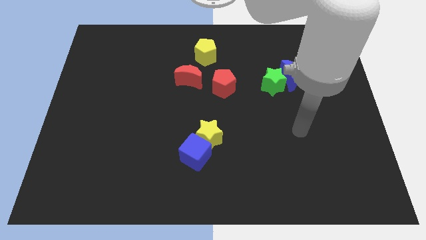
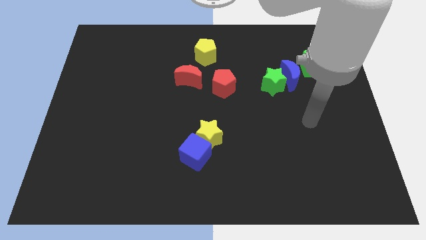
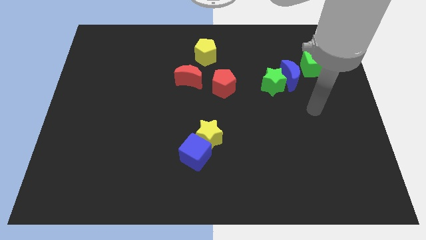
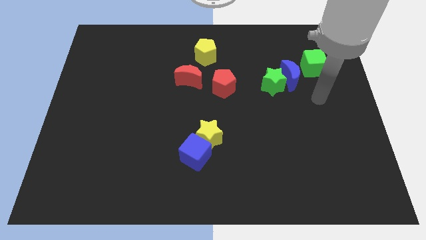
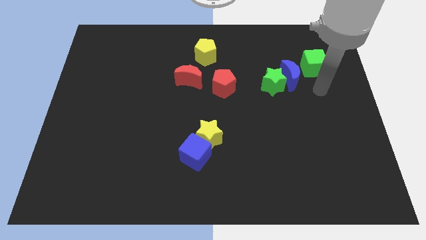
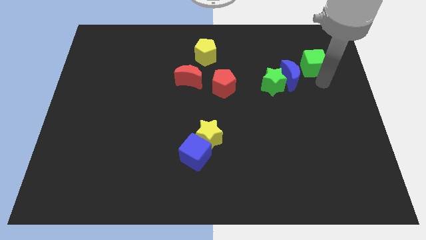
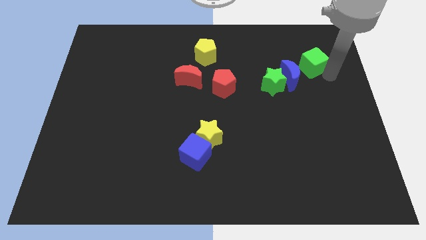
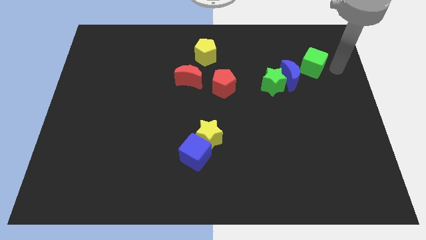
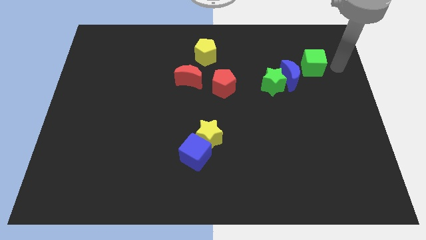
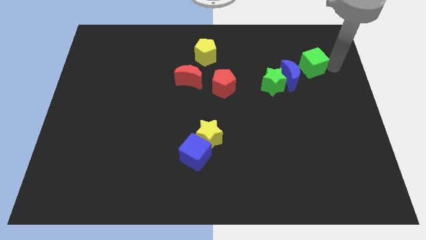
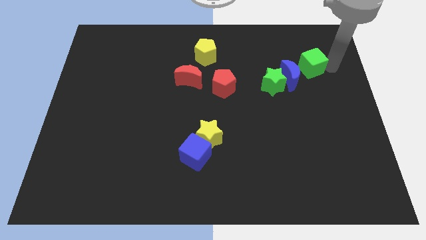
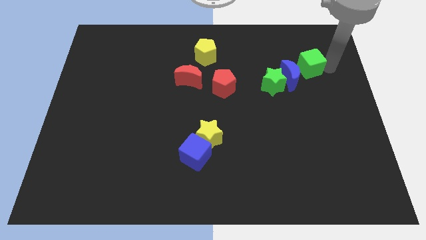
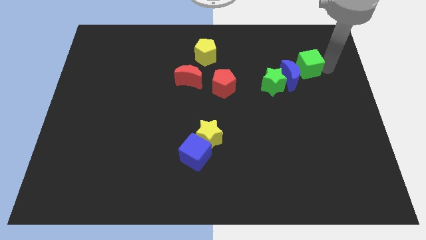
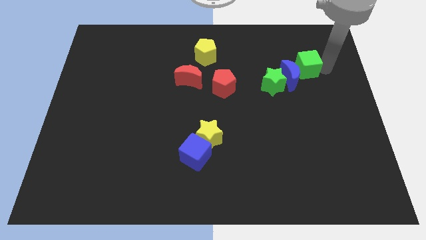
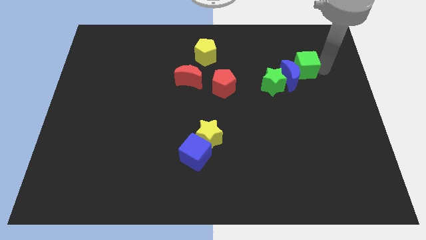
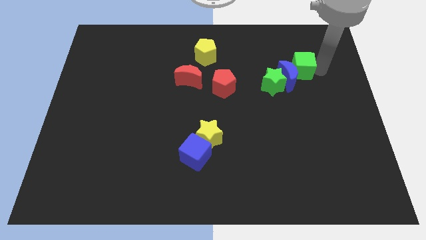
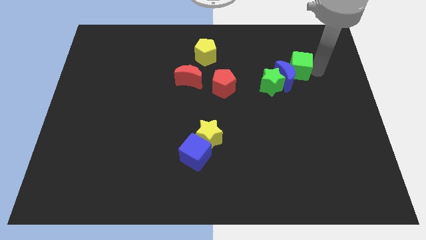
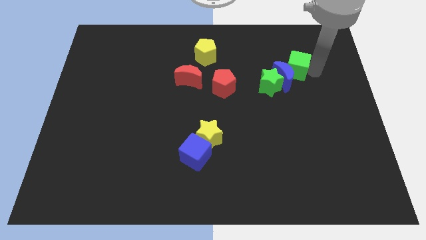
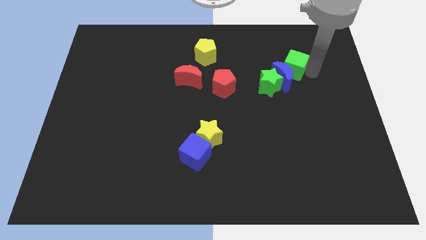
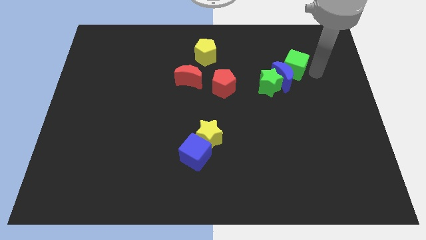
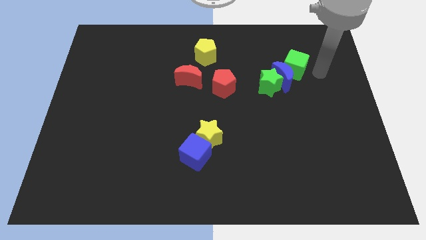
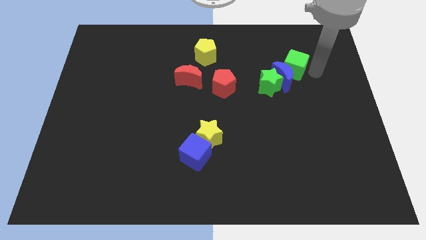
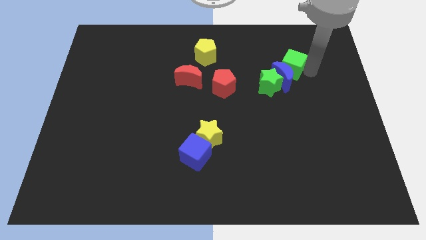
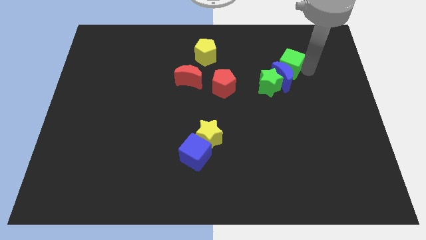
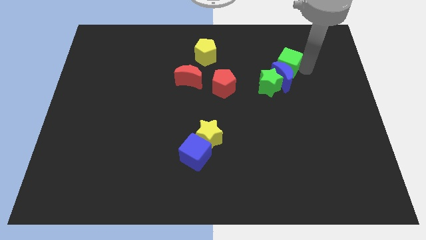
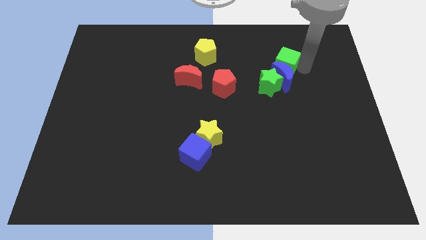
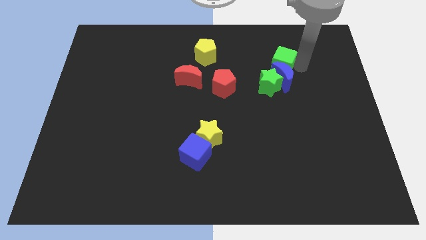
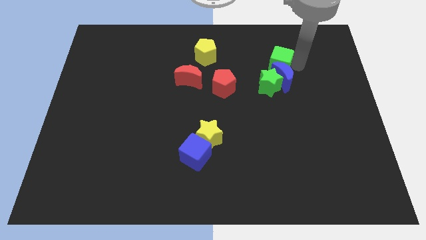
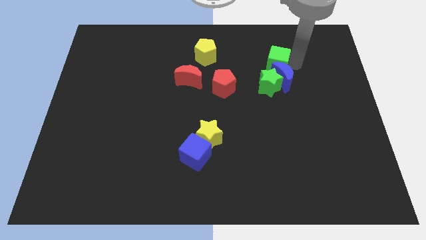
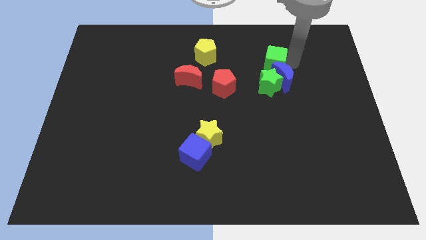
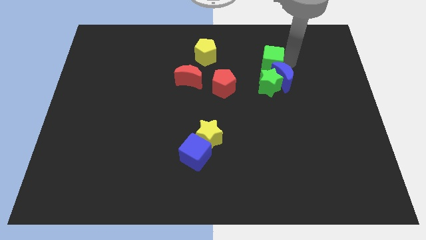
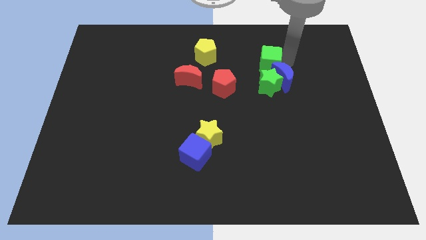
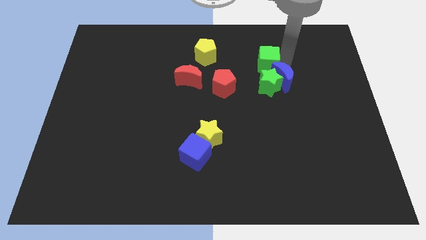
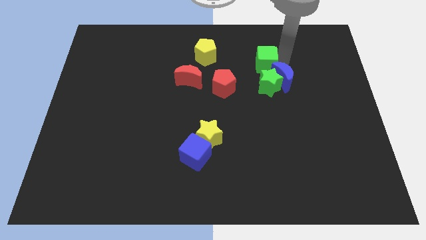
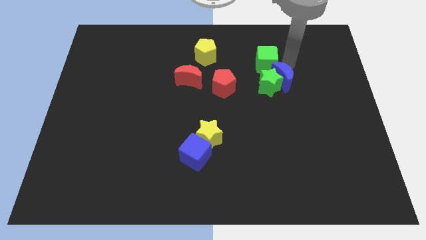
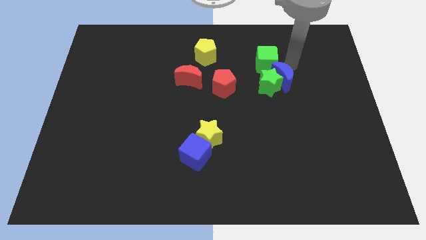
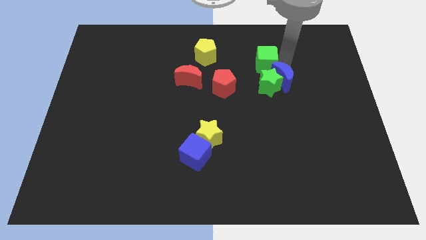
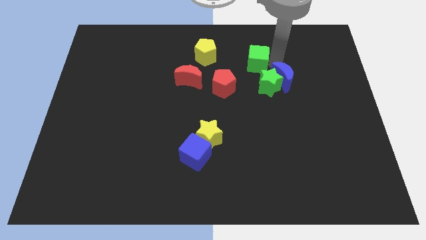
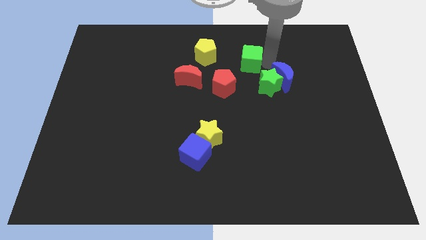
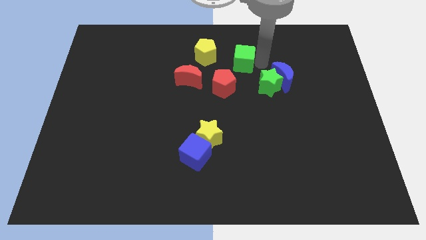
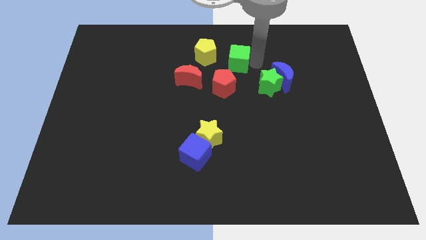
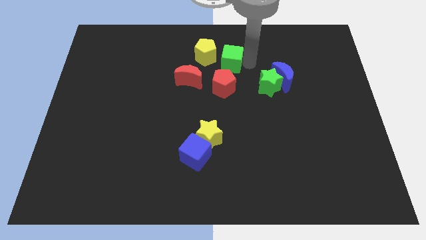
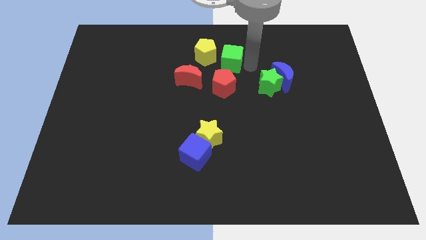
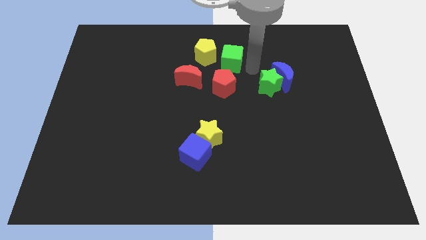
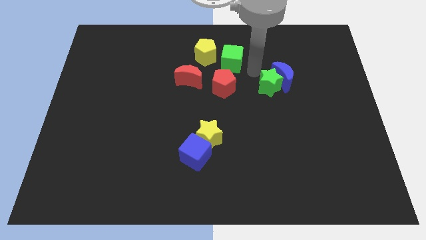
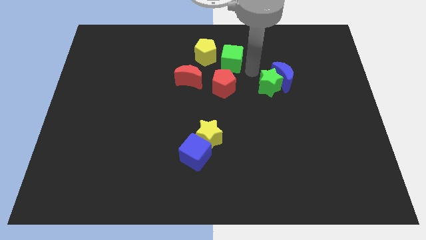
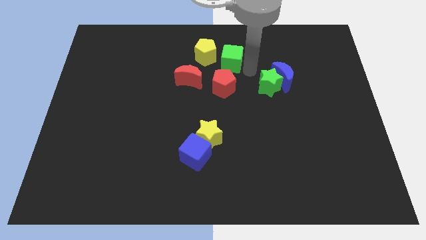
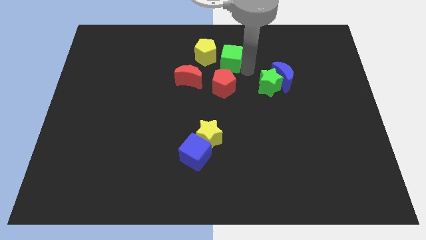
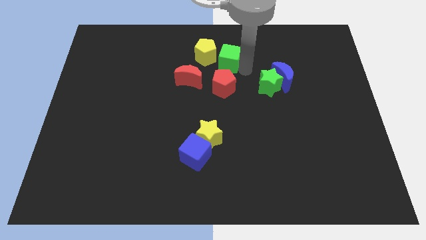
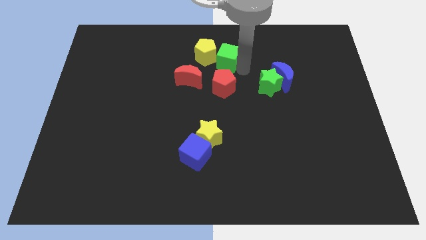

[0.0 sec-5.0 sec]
slide the green cube to the yellow pentagon

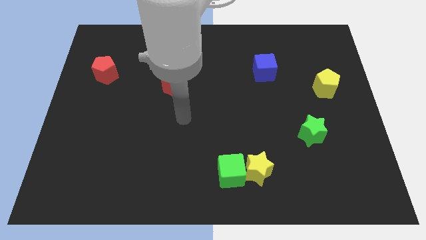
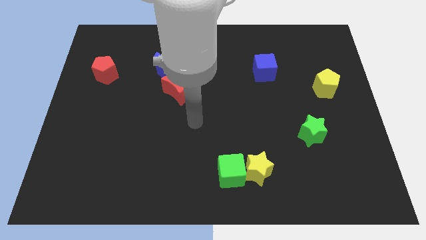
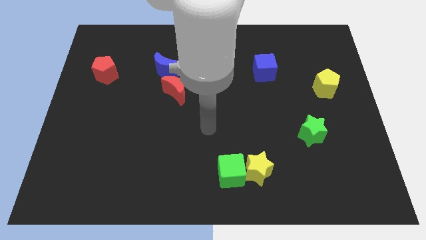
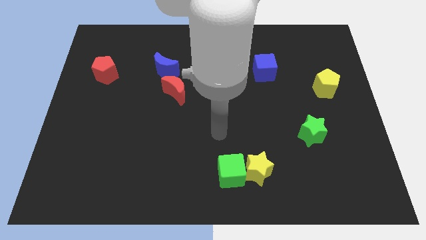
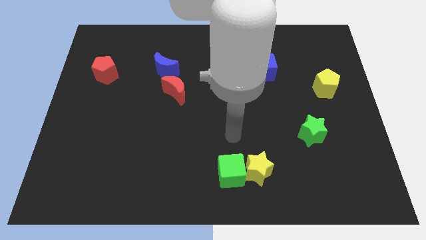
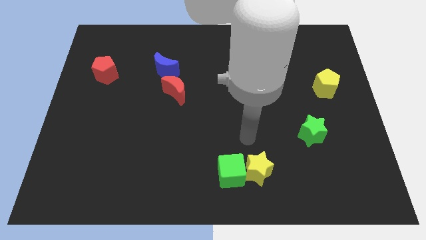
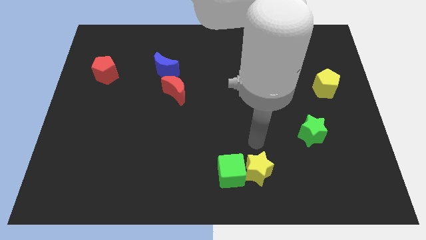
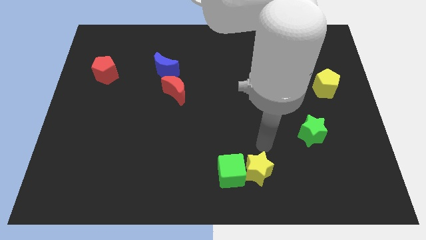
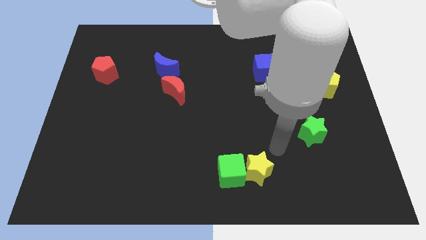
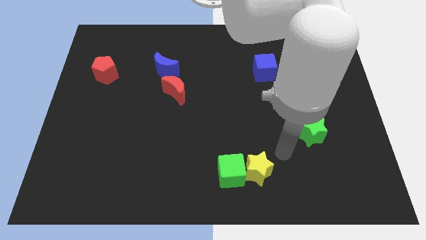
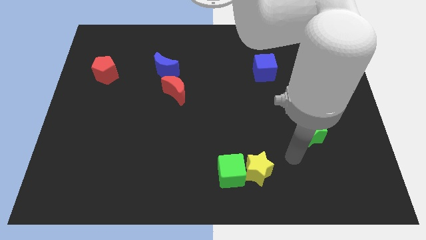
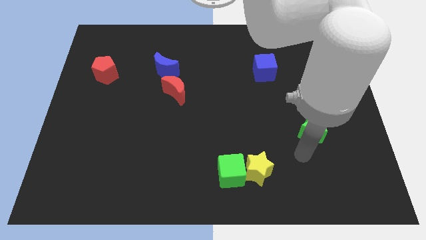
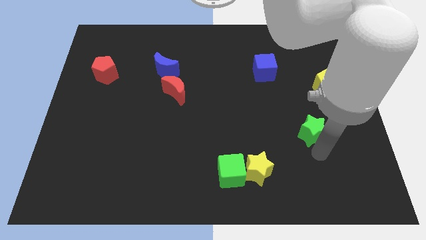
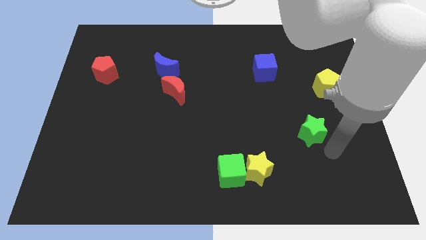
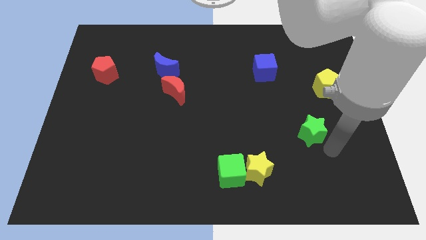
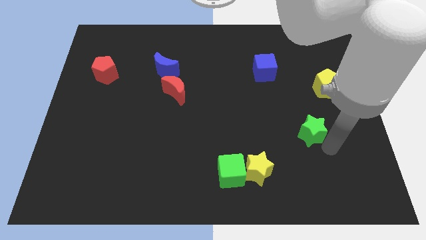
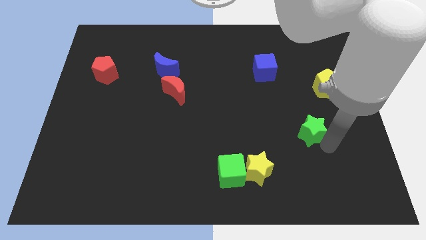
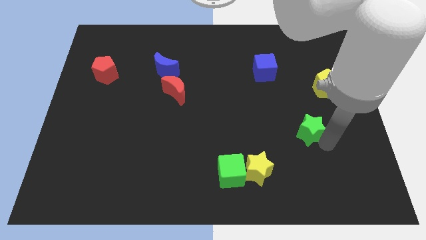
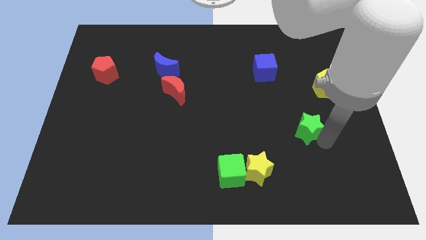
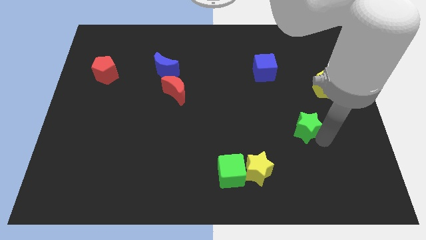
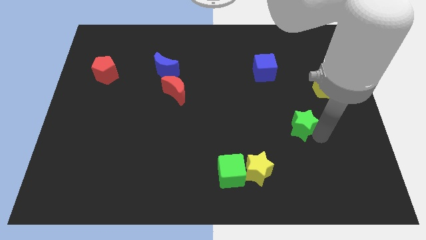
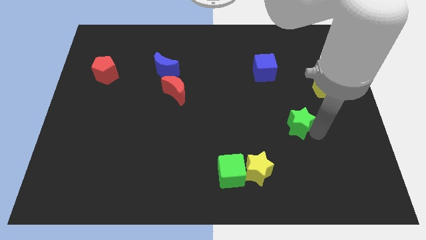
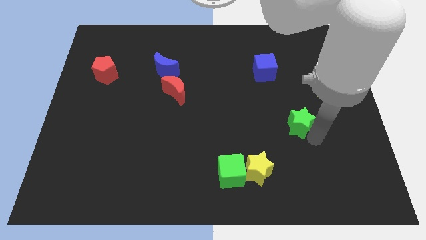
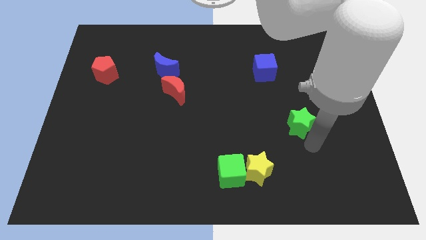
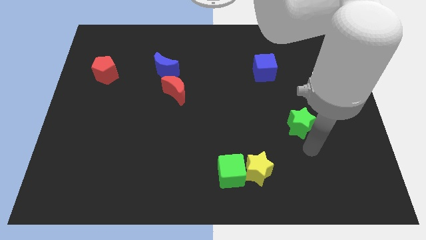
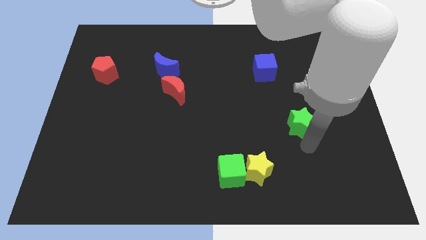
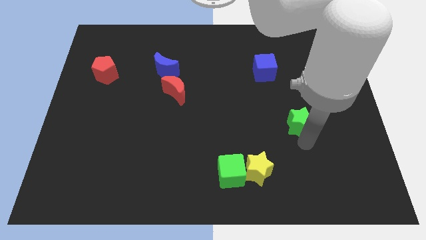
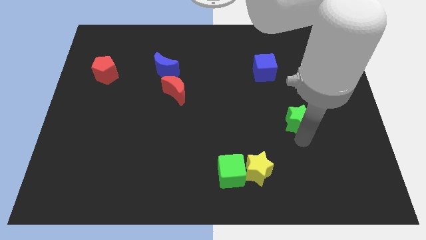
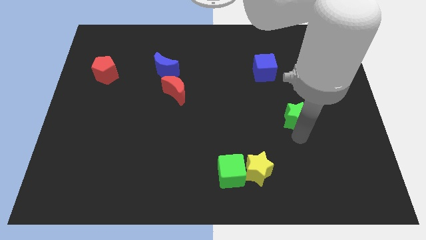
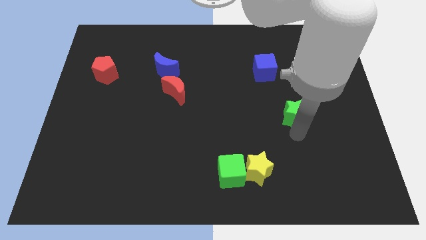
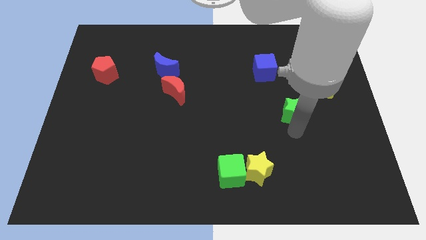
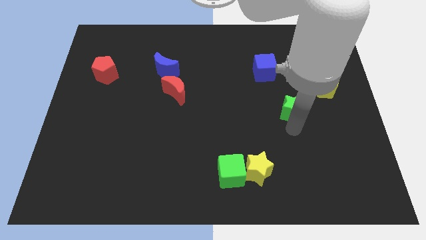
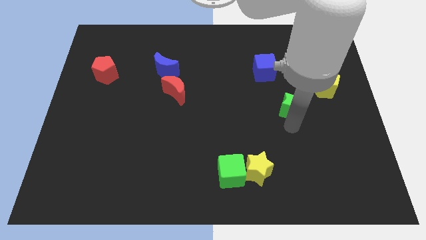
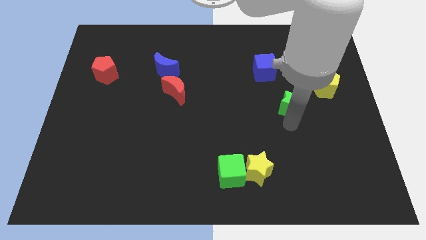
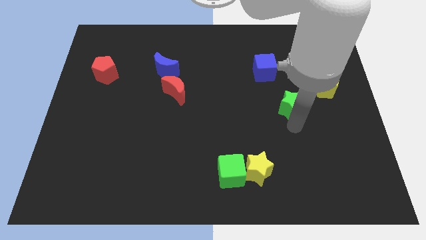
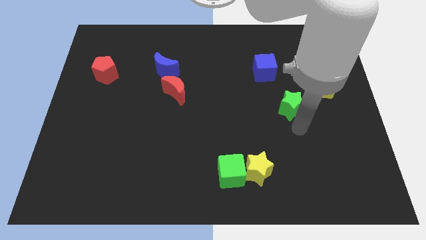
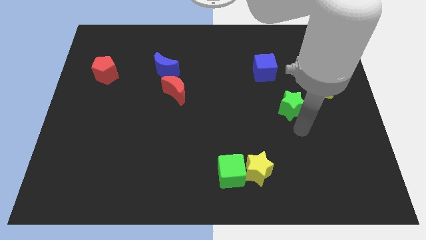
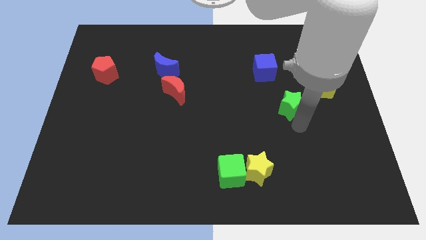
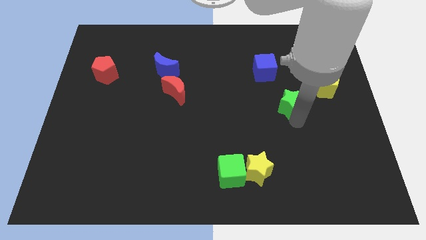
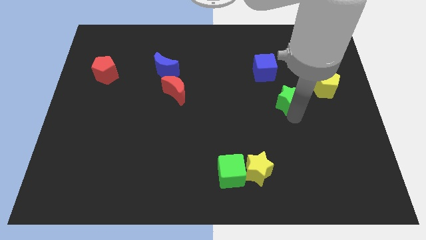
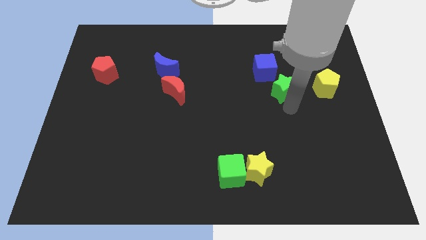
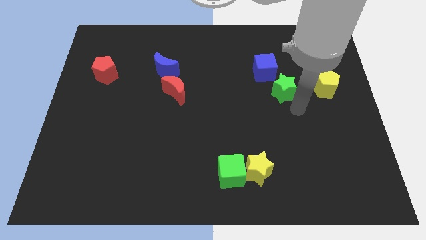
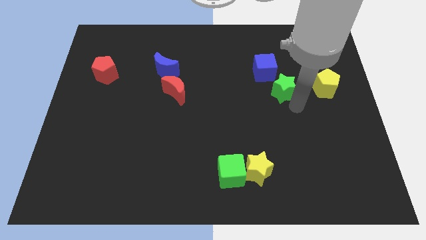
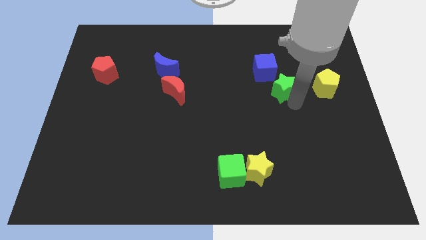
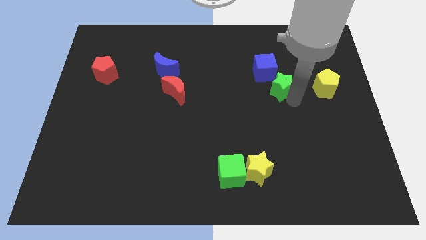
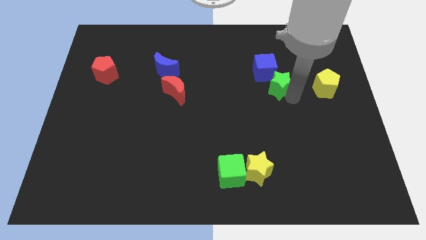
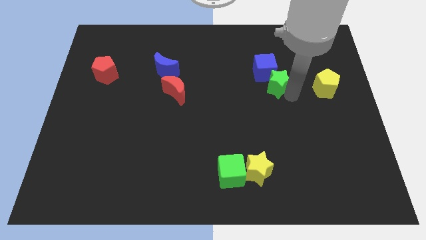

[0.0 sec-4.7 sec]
push the green star to the blue cube
